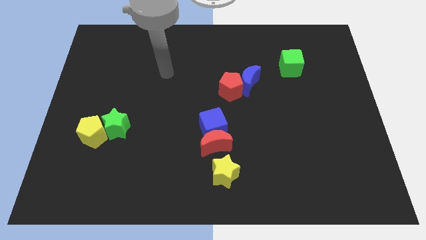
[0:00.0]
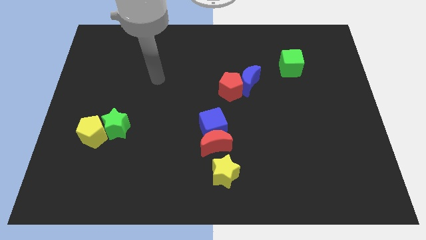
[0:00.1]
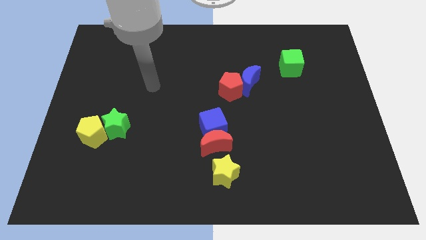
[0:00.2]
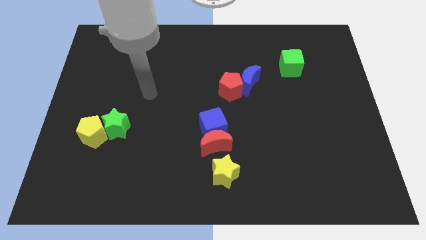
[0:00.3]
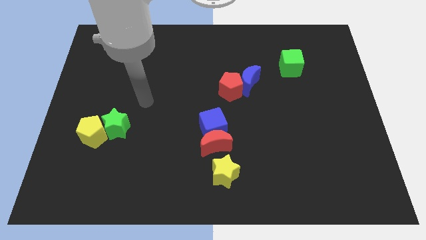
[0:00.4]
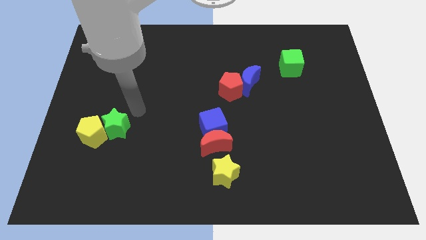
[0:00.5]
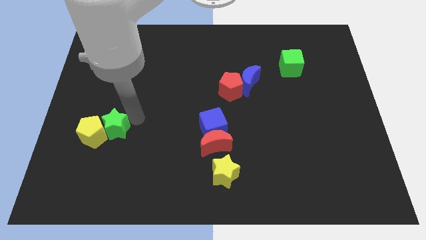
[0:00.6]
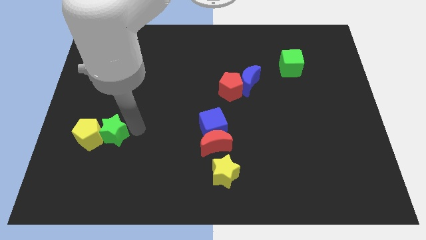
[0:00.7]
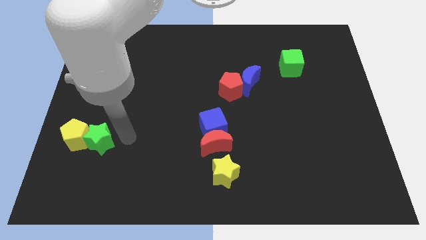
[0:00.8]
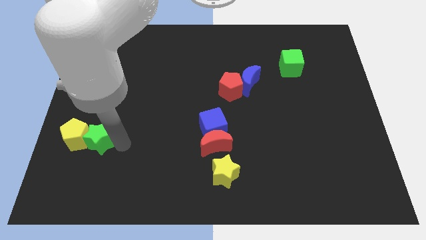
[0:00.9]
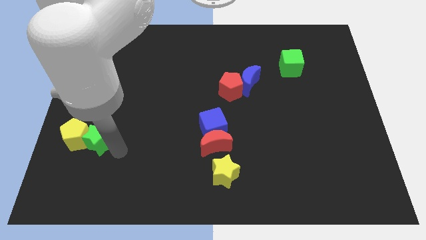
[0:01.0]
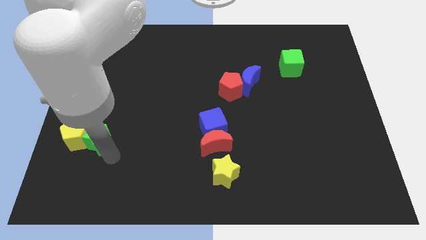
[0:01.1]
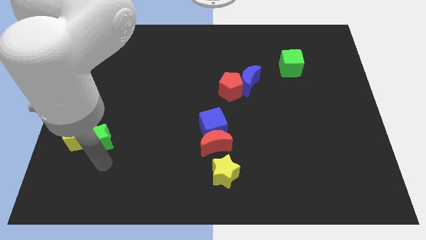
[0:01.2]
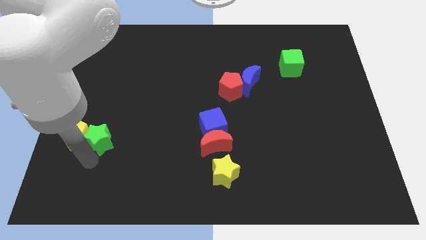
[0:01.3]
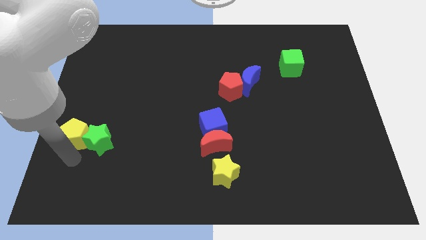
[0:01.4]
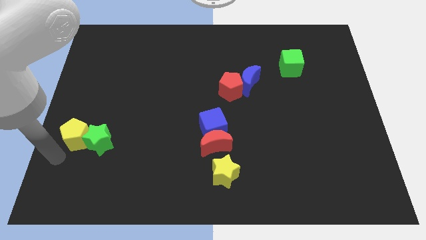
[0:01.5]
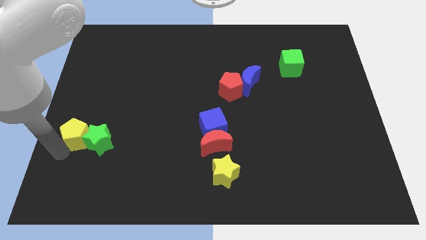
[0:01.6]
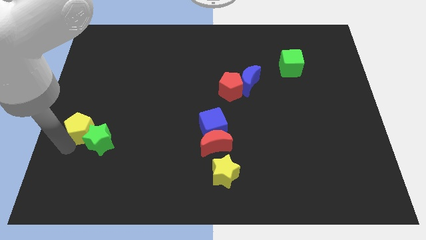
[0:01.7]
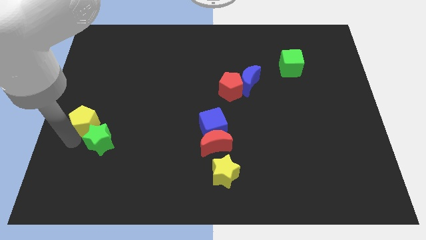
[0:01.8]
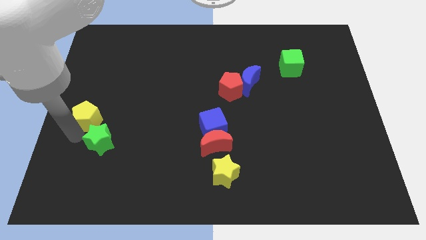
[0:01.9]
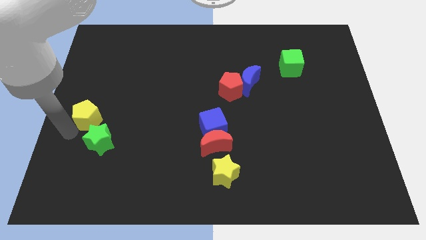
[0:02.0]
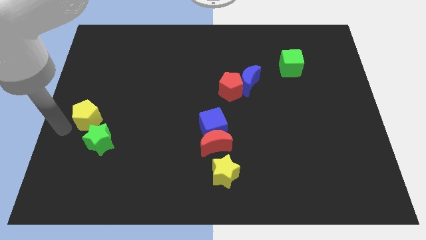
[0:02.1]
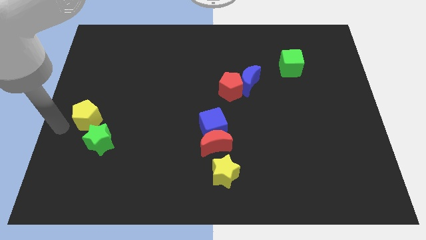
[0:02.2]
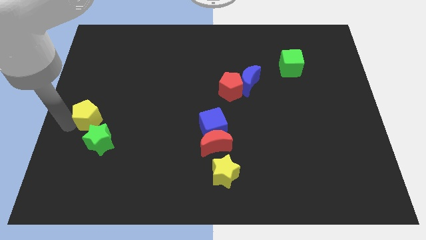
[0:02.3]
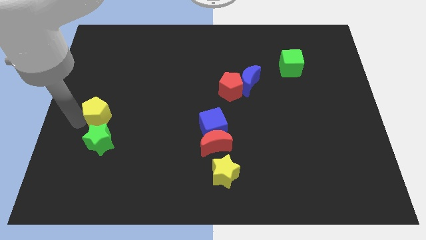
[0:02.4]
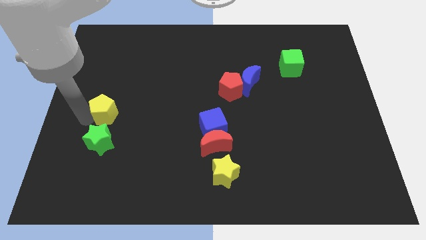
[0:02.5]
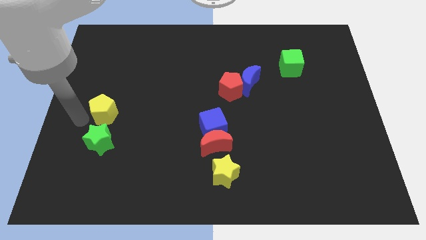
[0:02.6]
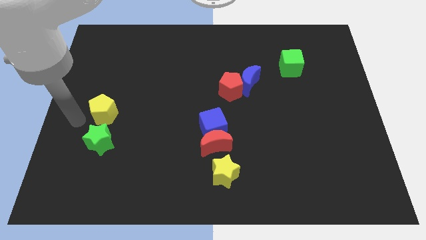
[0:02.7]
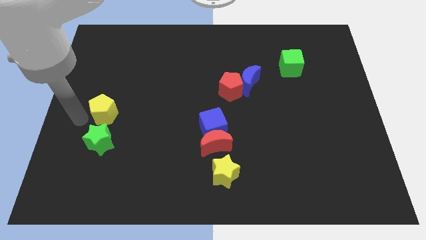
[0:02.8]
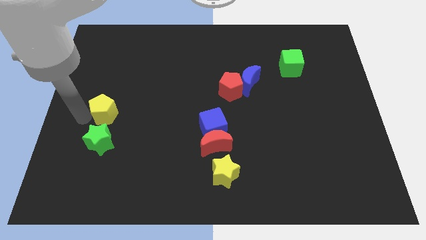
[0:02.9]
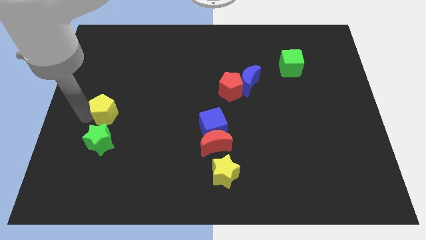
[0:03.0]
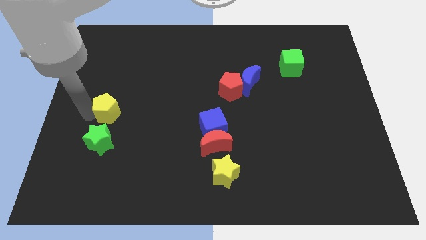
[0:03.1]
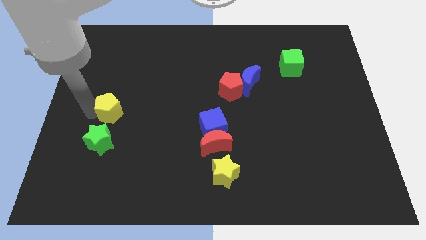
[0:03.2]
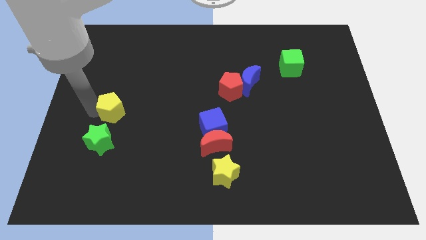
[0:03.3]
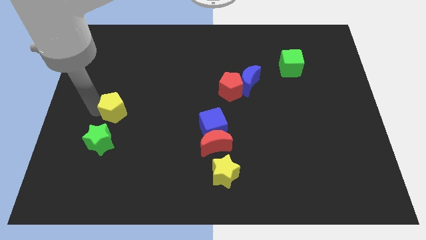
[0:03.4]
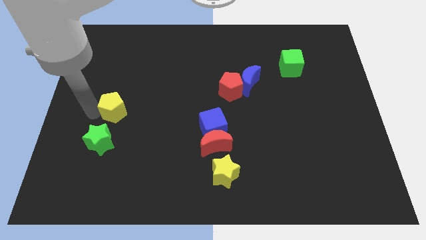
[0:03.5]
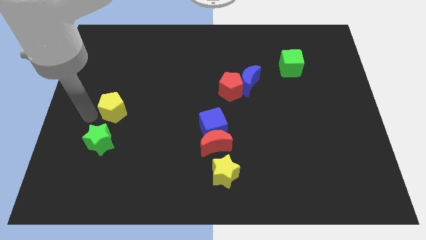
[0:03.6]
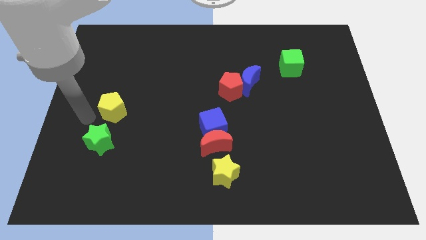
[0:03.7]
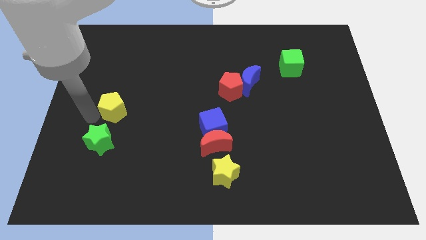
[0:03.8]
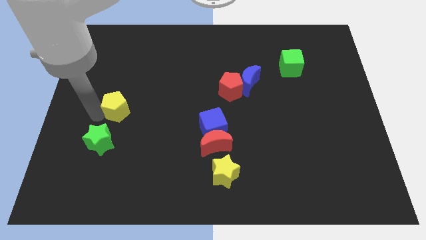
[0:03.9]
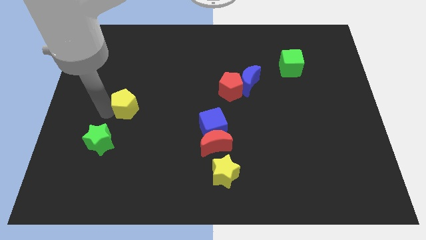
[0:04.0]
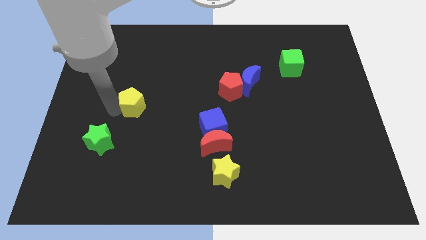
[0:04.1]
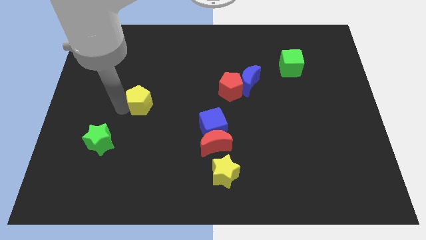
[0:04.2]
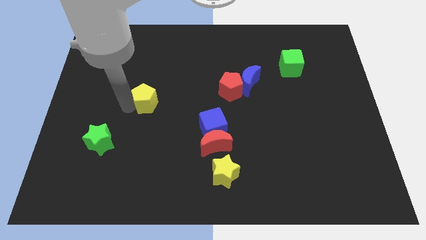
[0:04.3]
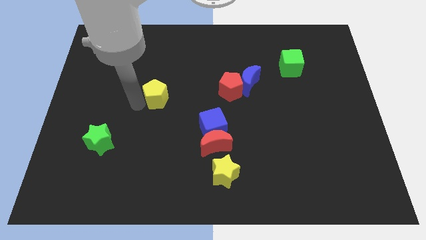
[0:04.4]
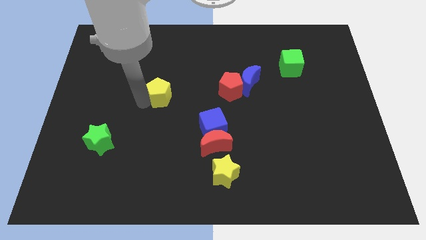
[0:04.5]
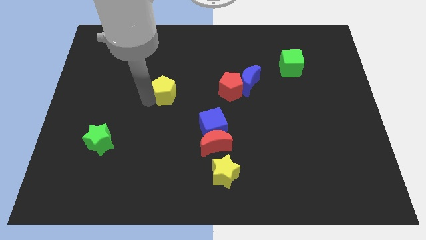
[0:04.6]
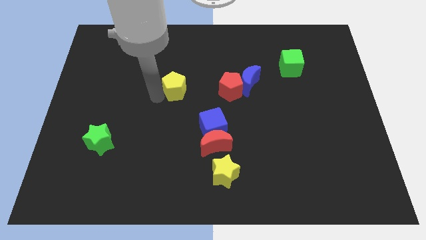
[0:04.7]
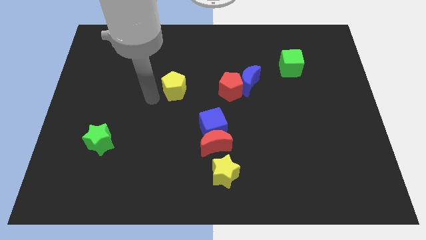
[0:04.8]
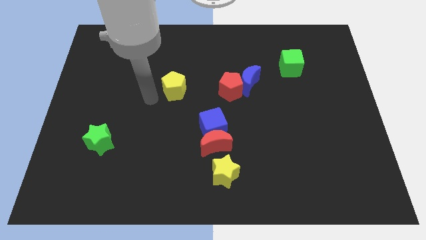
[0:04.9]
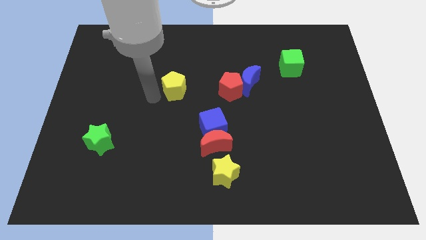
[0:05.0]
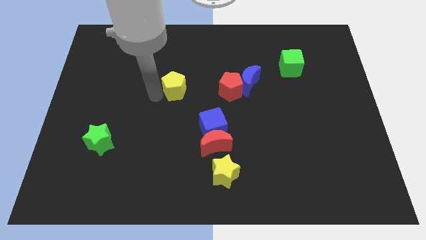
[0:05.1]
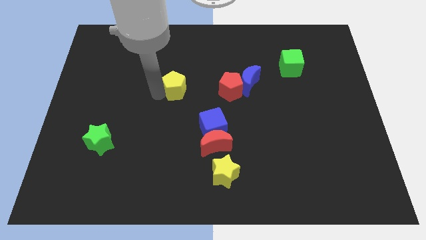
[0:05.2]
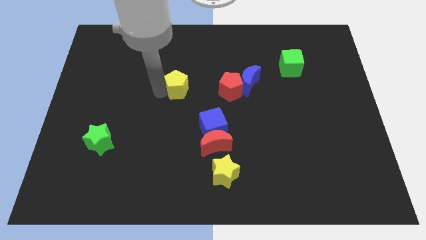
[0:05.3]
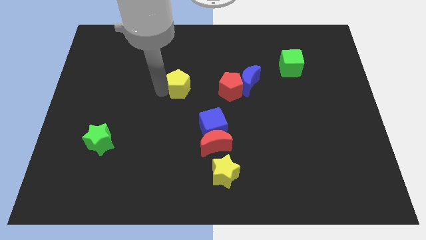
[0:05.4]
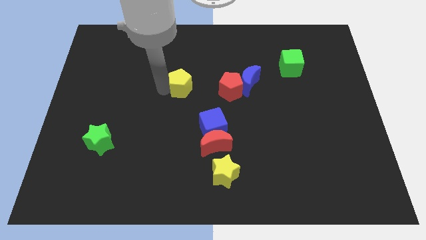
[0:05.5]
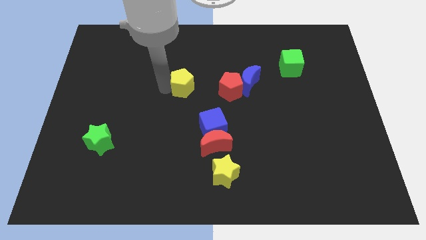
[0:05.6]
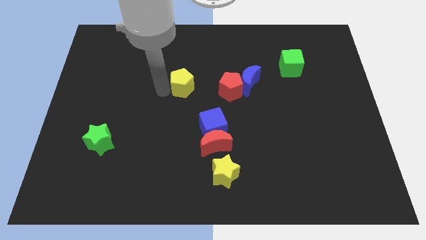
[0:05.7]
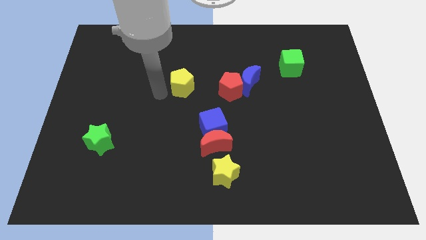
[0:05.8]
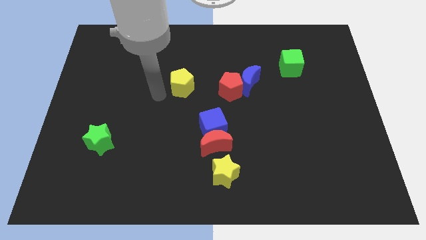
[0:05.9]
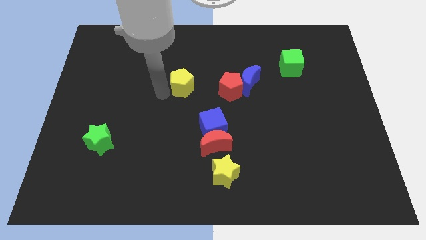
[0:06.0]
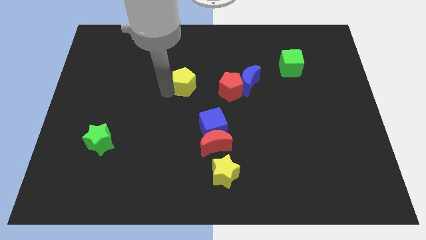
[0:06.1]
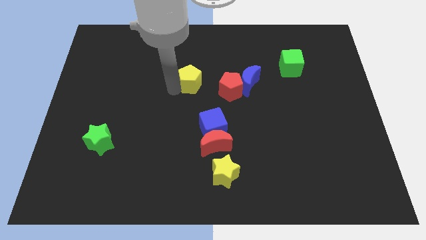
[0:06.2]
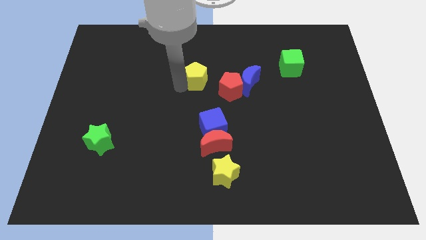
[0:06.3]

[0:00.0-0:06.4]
put the yellow pentagon to the top left side of the red pentagon

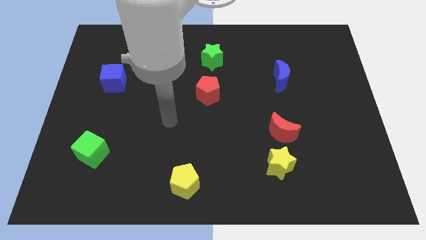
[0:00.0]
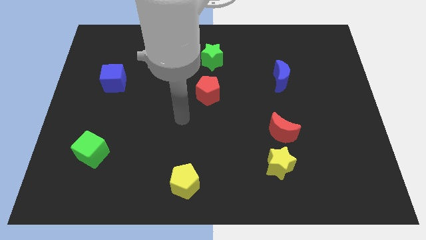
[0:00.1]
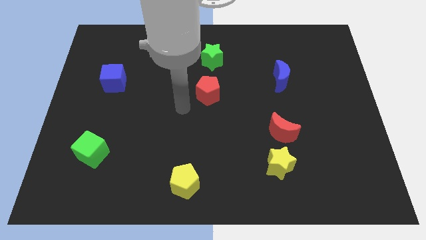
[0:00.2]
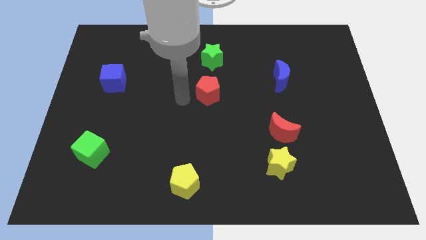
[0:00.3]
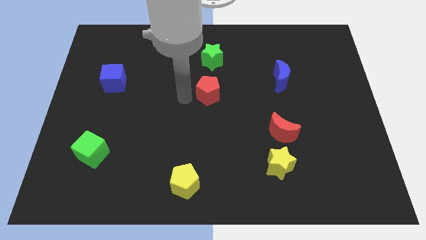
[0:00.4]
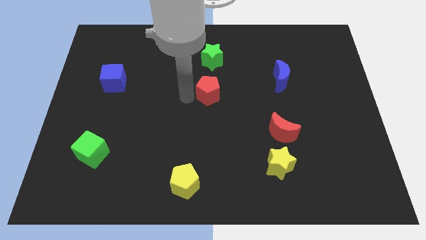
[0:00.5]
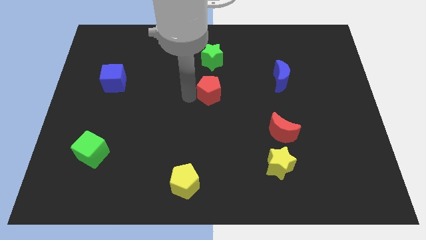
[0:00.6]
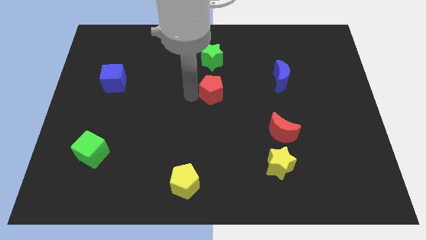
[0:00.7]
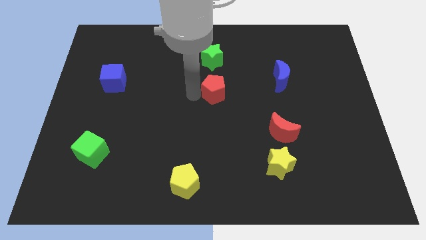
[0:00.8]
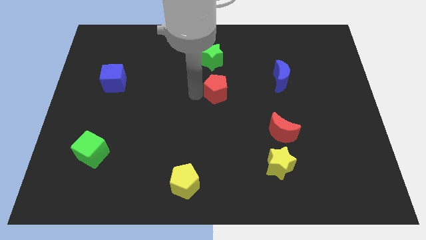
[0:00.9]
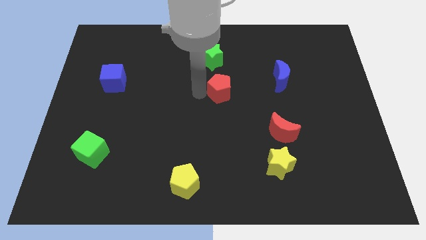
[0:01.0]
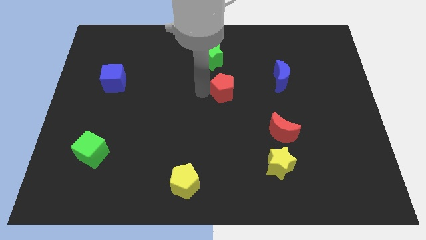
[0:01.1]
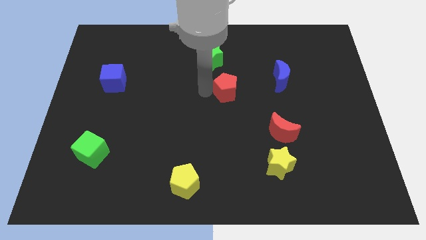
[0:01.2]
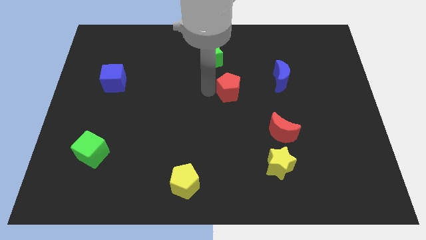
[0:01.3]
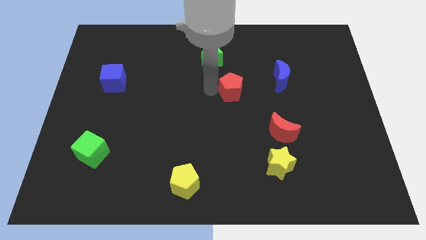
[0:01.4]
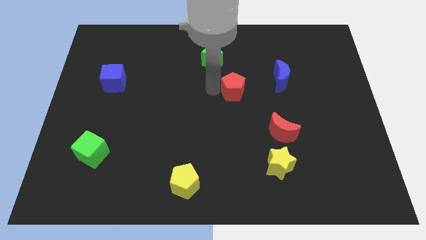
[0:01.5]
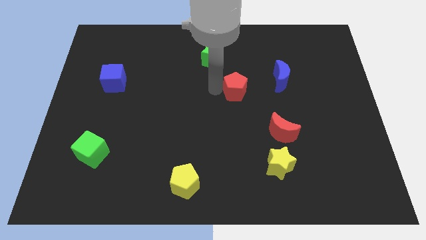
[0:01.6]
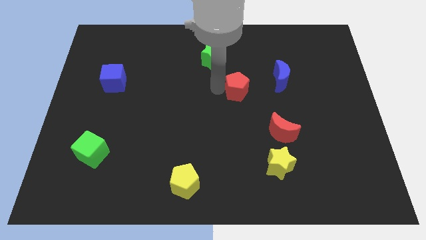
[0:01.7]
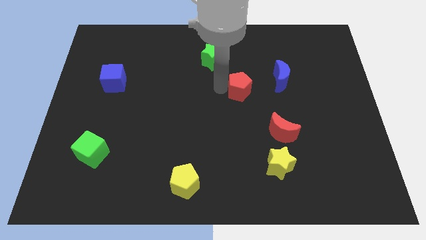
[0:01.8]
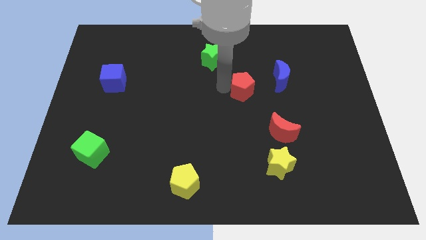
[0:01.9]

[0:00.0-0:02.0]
put the red pentagon to the bottom left of the blue moon
